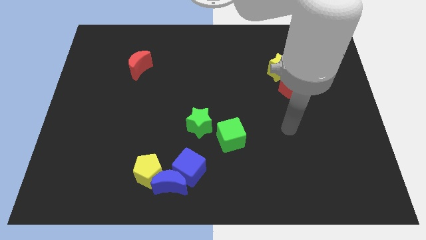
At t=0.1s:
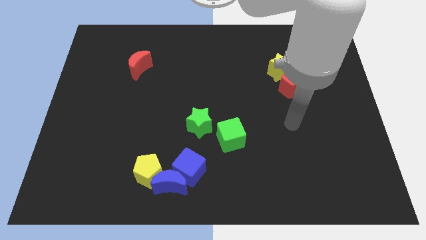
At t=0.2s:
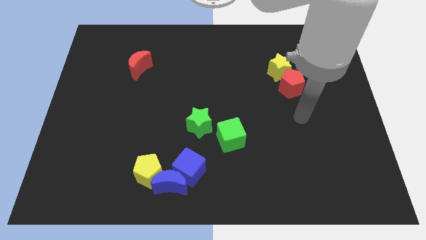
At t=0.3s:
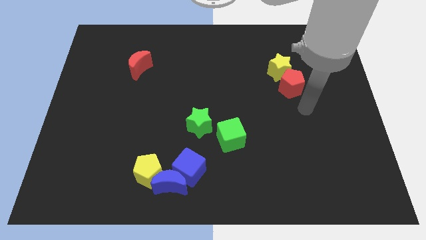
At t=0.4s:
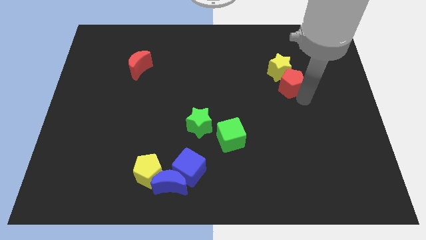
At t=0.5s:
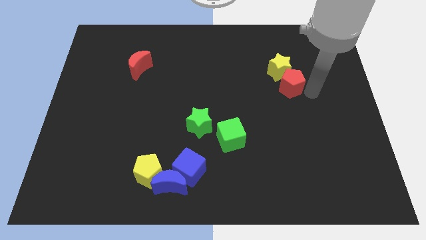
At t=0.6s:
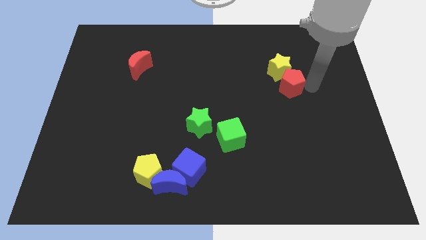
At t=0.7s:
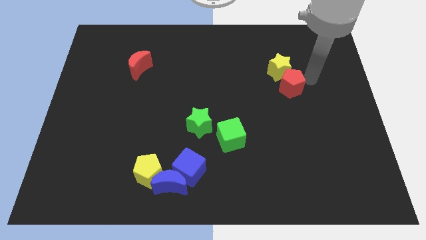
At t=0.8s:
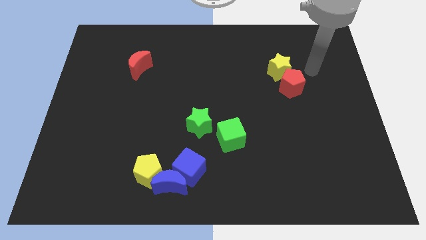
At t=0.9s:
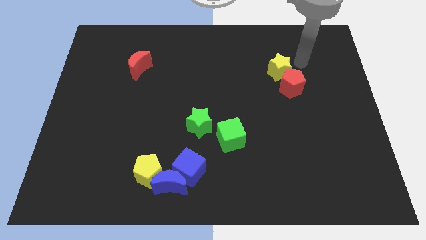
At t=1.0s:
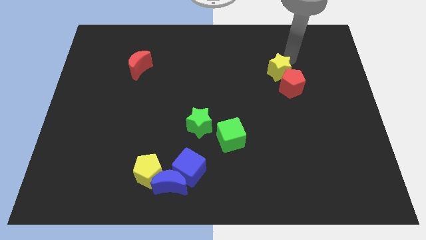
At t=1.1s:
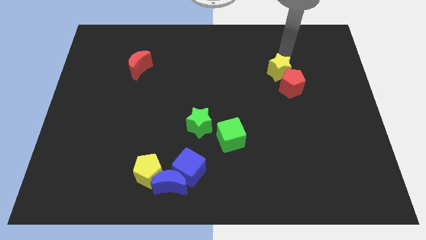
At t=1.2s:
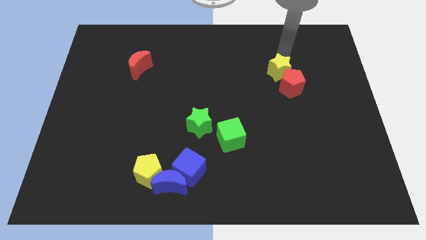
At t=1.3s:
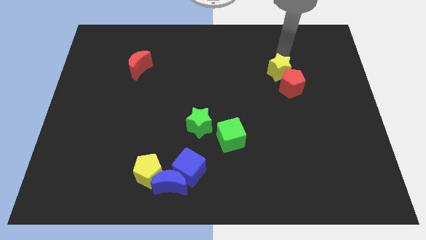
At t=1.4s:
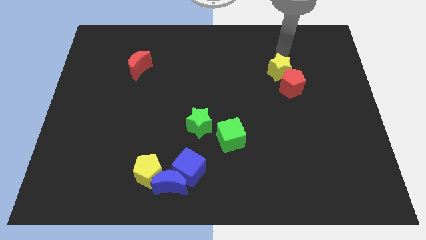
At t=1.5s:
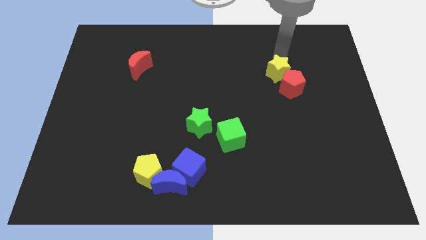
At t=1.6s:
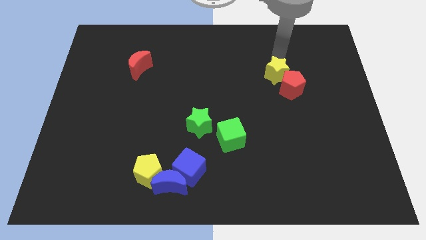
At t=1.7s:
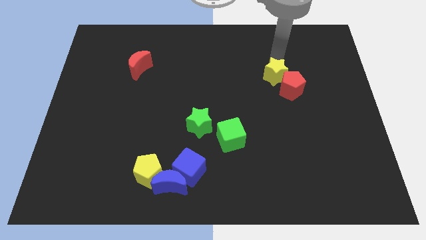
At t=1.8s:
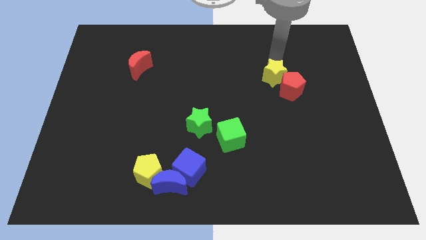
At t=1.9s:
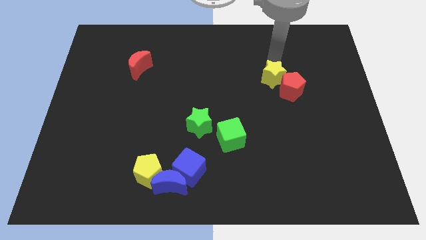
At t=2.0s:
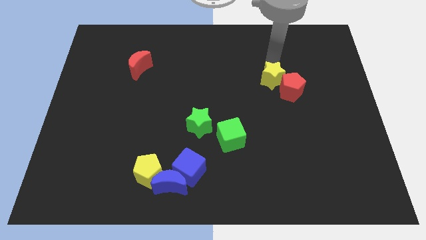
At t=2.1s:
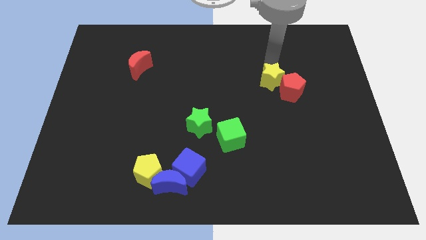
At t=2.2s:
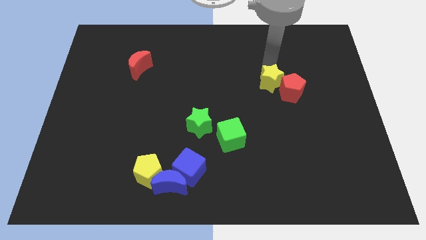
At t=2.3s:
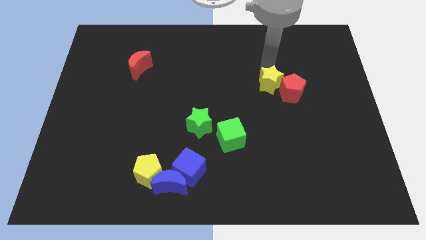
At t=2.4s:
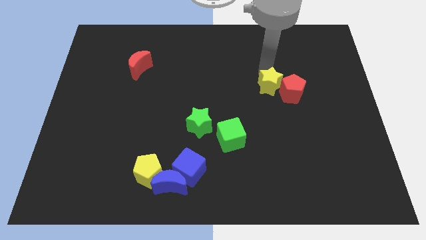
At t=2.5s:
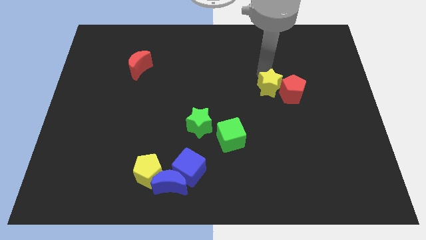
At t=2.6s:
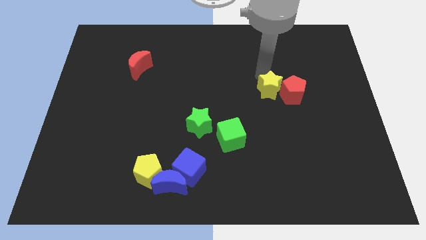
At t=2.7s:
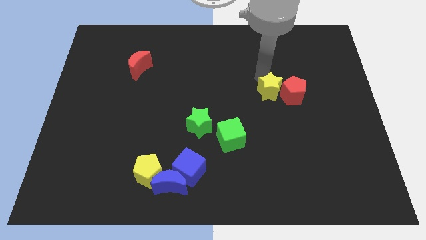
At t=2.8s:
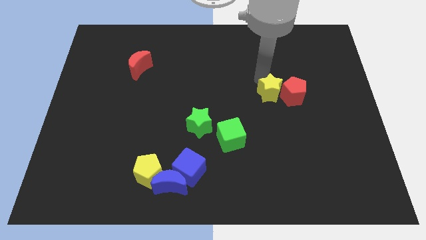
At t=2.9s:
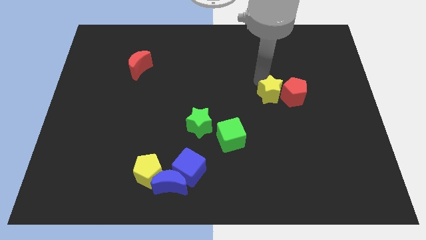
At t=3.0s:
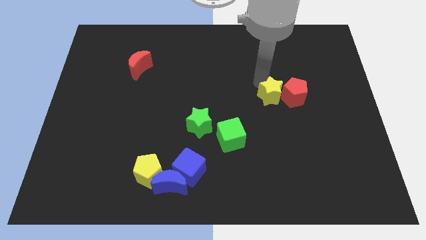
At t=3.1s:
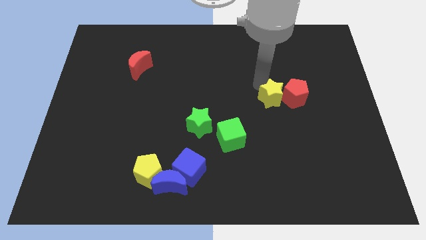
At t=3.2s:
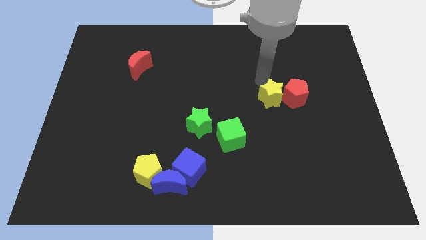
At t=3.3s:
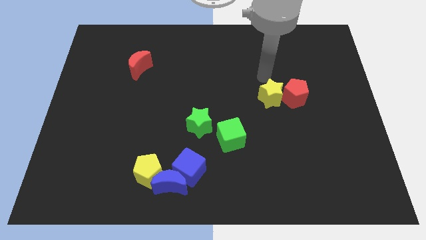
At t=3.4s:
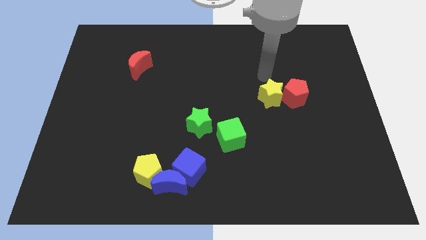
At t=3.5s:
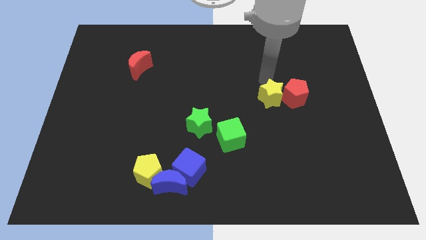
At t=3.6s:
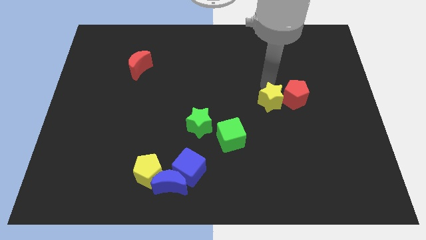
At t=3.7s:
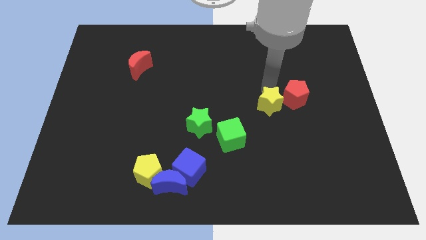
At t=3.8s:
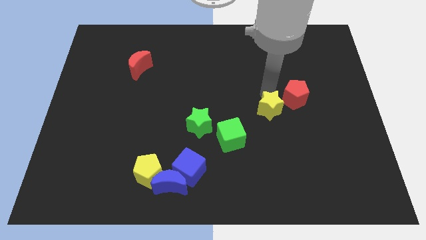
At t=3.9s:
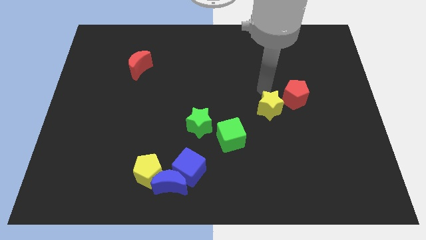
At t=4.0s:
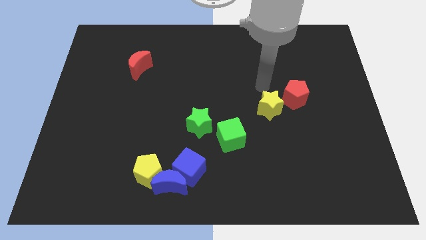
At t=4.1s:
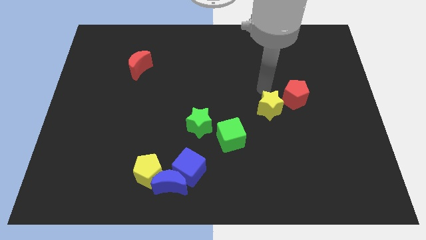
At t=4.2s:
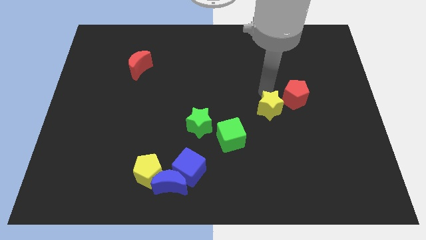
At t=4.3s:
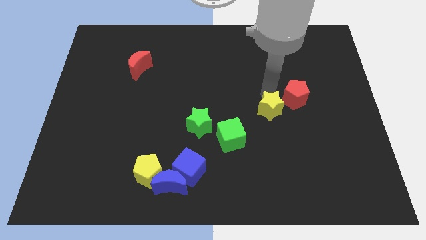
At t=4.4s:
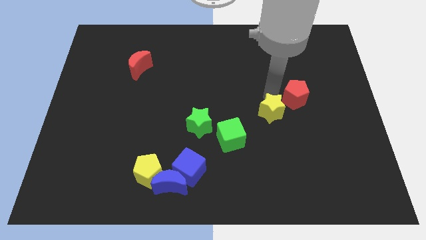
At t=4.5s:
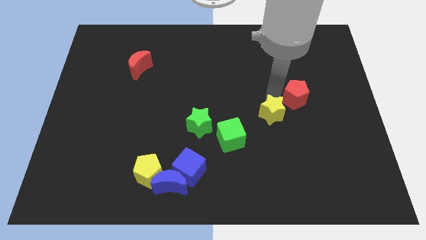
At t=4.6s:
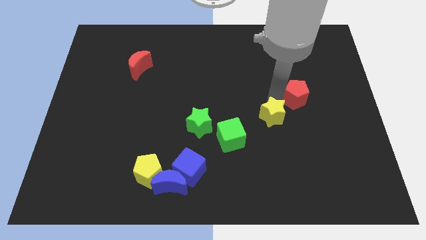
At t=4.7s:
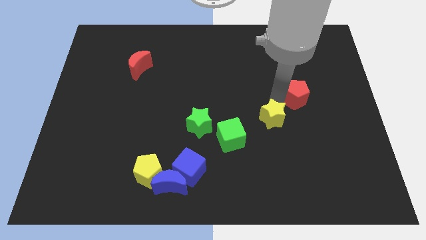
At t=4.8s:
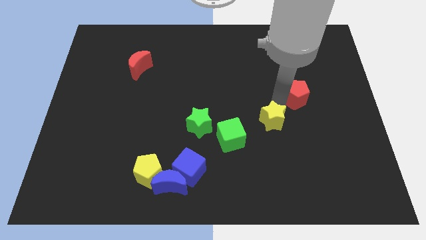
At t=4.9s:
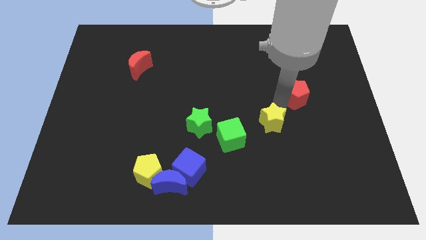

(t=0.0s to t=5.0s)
put the yellow star to the right side of the green cube

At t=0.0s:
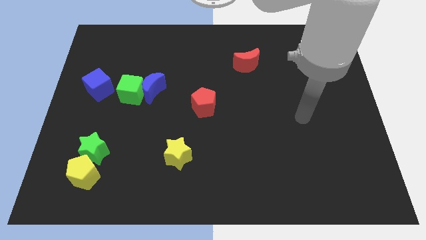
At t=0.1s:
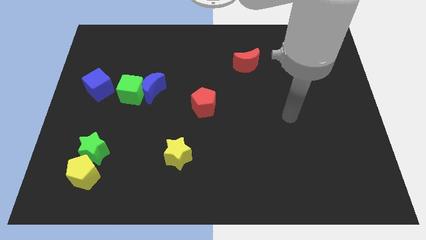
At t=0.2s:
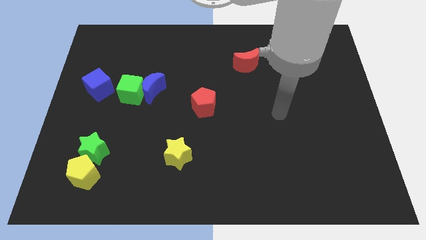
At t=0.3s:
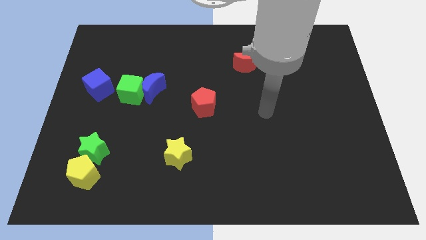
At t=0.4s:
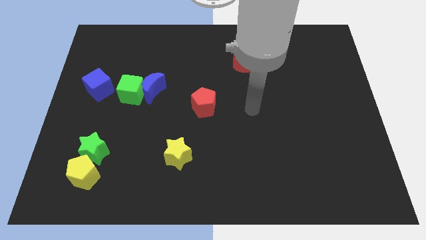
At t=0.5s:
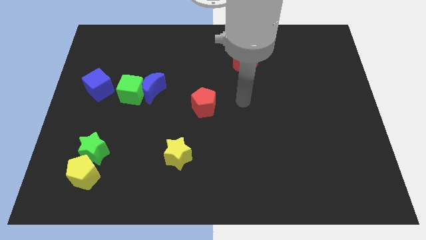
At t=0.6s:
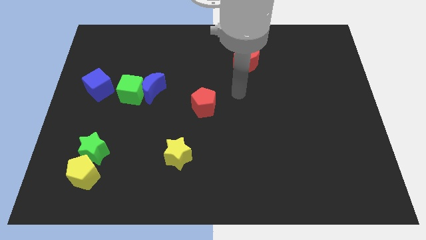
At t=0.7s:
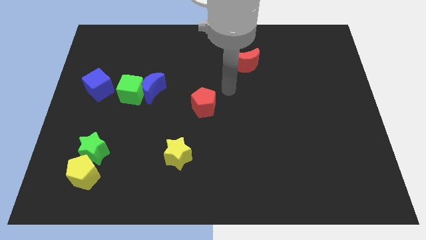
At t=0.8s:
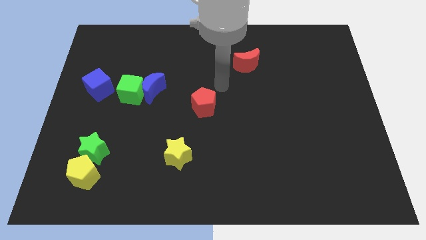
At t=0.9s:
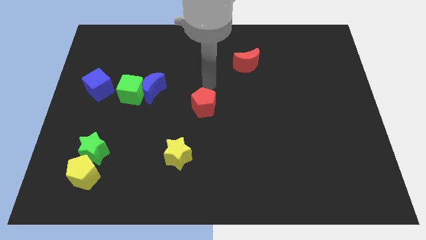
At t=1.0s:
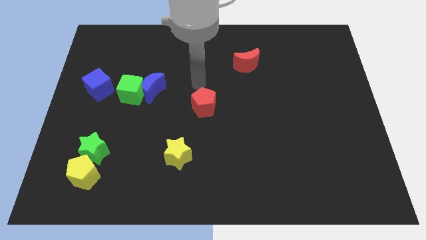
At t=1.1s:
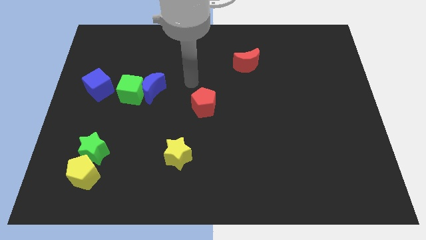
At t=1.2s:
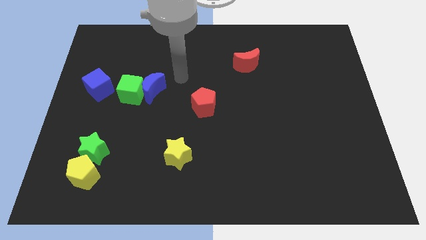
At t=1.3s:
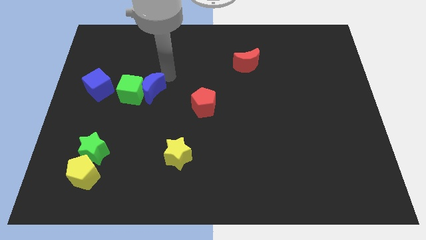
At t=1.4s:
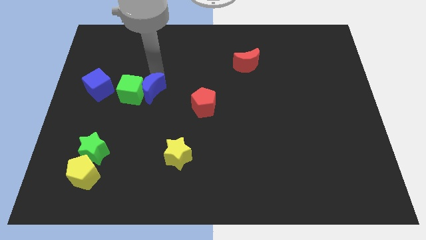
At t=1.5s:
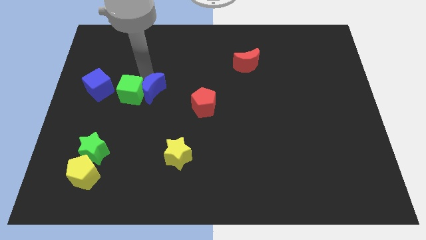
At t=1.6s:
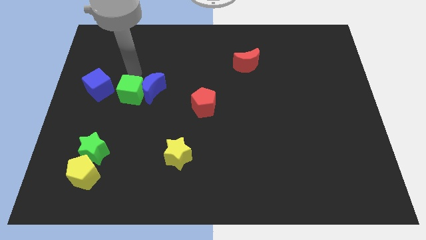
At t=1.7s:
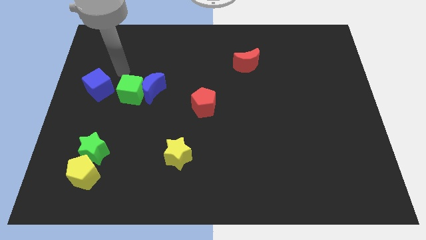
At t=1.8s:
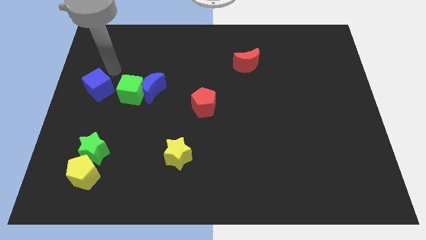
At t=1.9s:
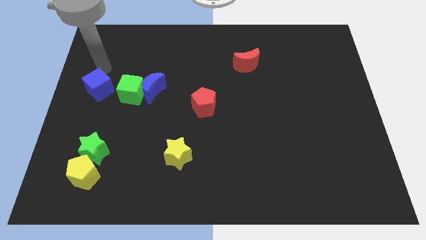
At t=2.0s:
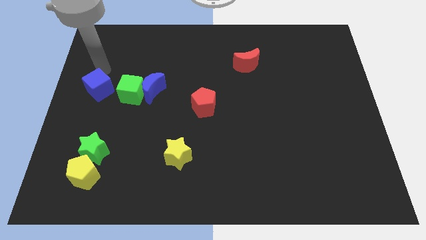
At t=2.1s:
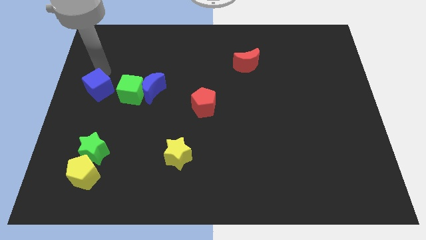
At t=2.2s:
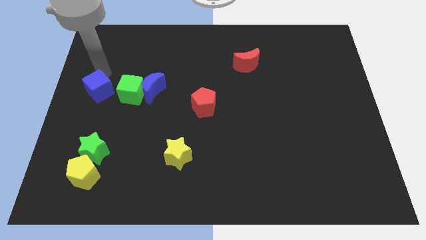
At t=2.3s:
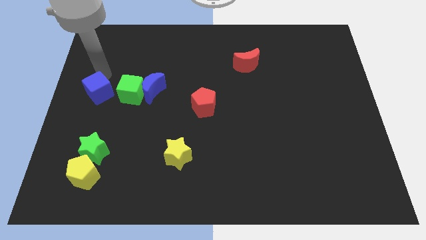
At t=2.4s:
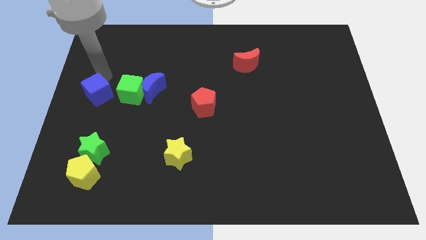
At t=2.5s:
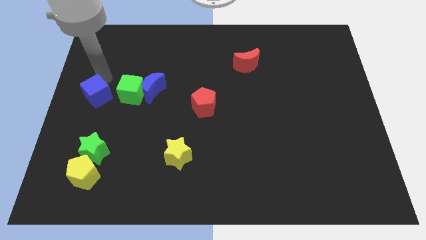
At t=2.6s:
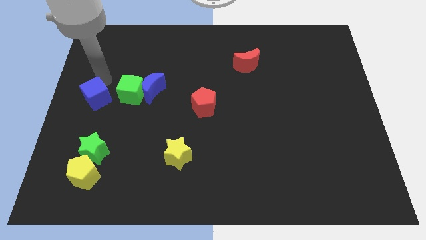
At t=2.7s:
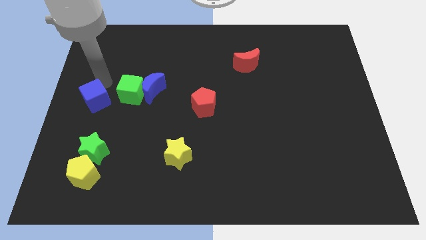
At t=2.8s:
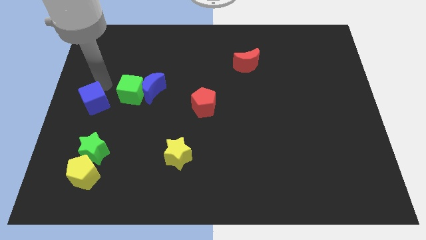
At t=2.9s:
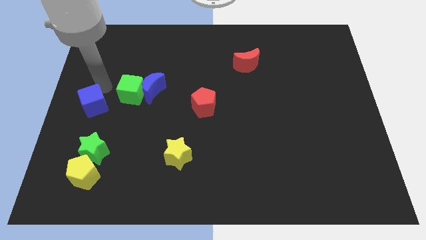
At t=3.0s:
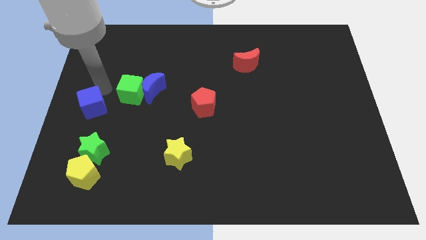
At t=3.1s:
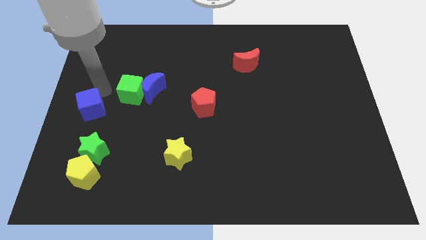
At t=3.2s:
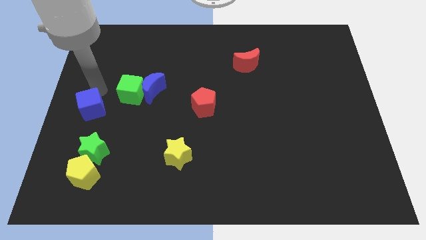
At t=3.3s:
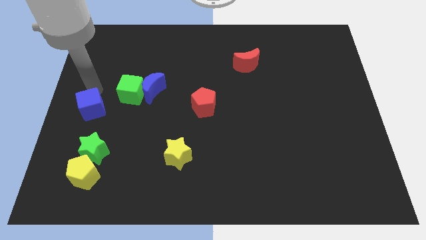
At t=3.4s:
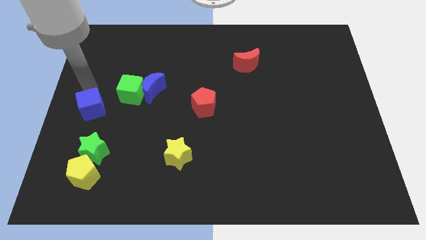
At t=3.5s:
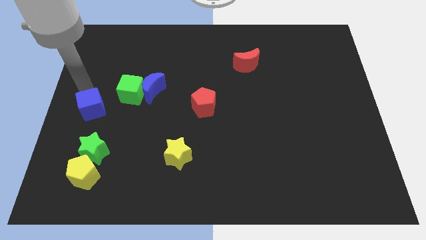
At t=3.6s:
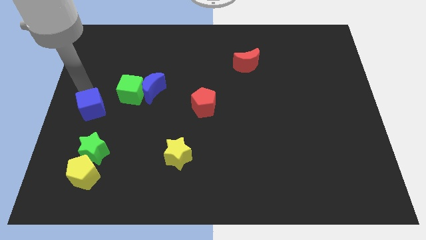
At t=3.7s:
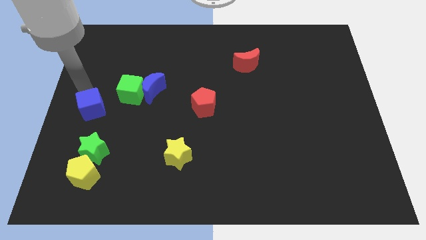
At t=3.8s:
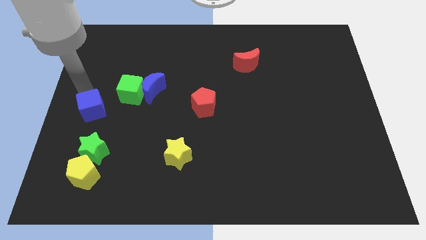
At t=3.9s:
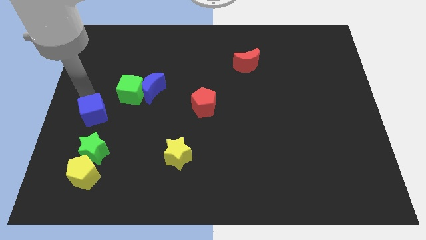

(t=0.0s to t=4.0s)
move the blue cube to the top side of the yellow pentagon
